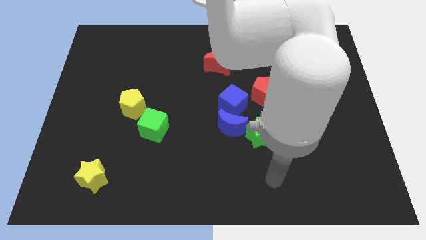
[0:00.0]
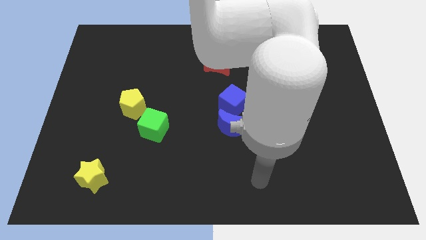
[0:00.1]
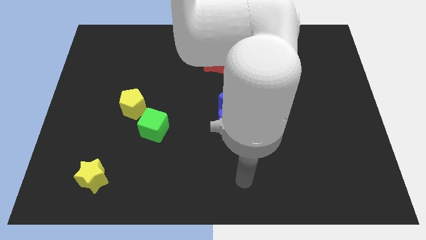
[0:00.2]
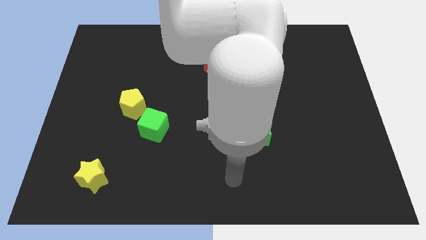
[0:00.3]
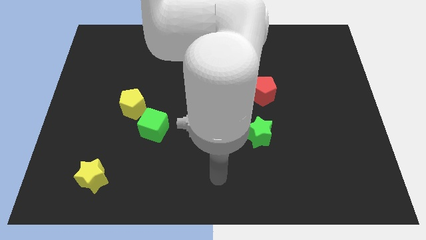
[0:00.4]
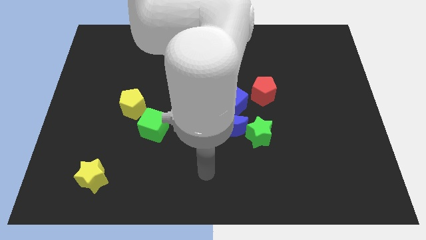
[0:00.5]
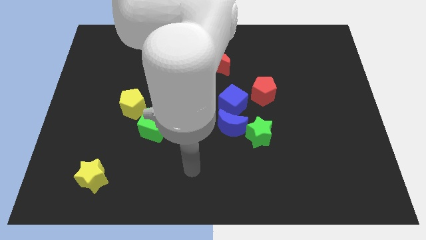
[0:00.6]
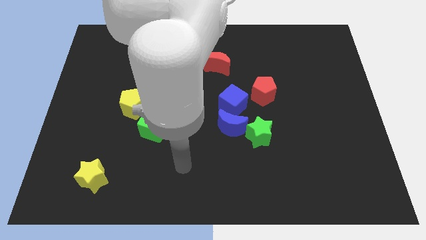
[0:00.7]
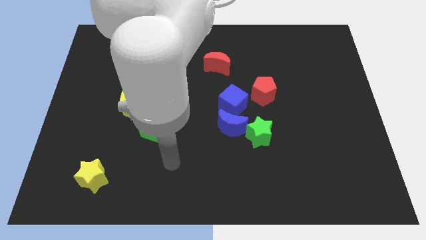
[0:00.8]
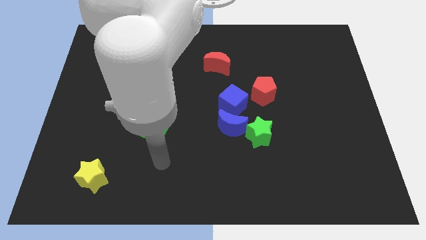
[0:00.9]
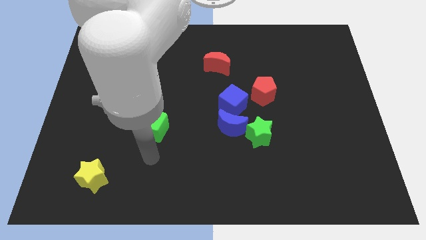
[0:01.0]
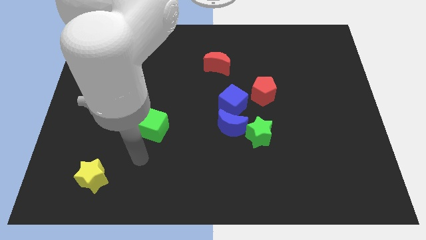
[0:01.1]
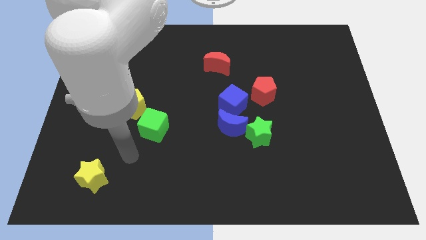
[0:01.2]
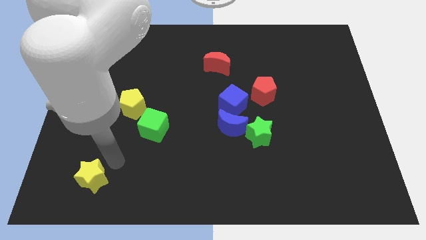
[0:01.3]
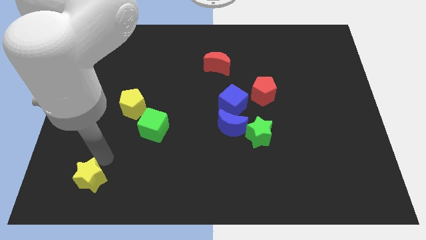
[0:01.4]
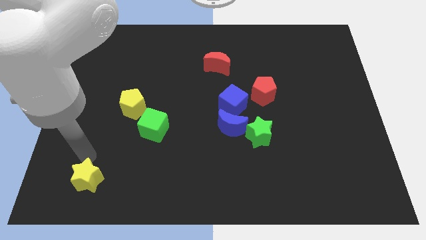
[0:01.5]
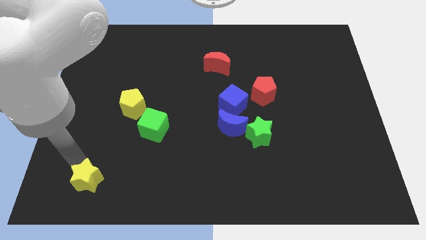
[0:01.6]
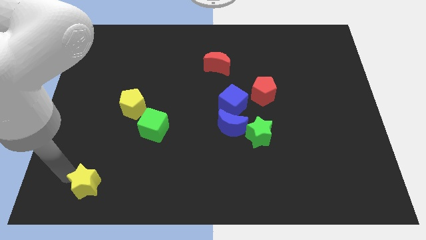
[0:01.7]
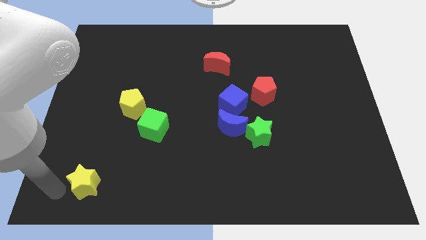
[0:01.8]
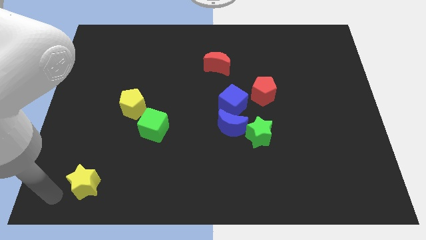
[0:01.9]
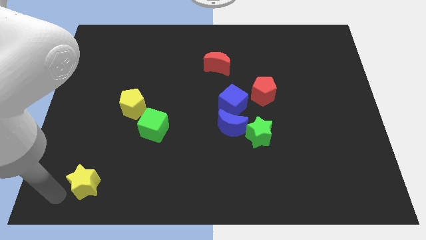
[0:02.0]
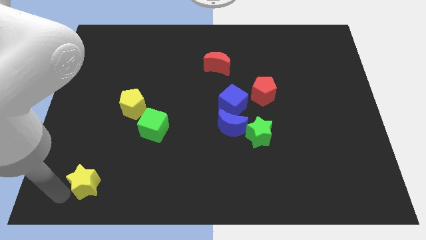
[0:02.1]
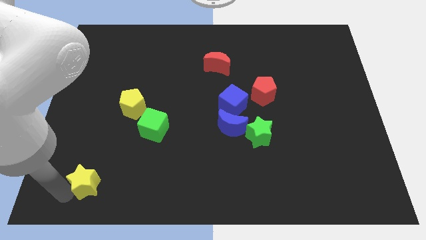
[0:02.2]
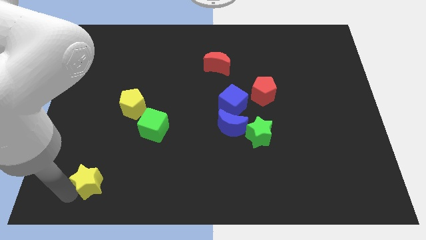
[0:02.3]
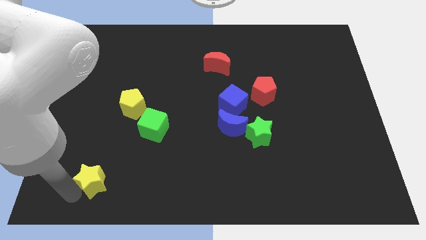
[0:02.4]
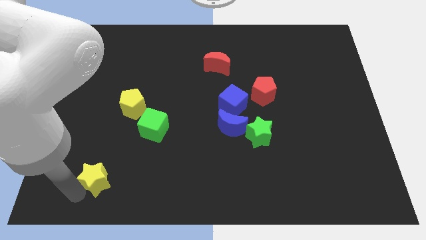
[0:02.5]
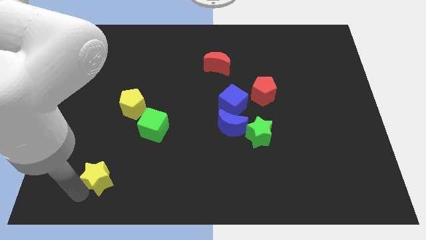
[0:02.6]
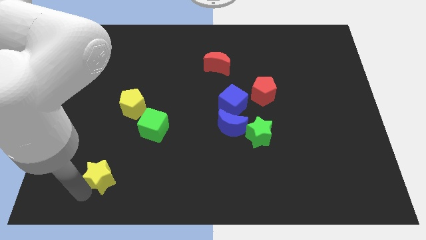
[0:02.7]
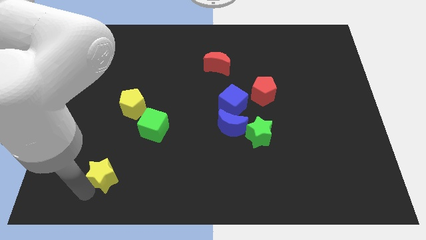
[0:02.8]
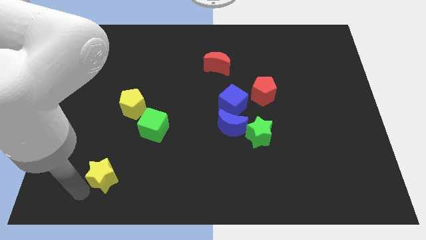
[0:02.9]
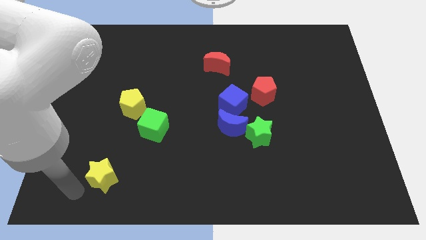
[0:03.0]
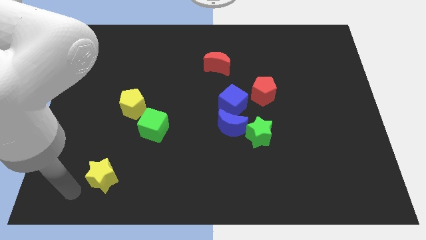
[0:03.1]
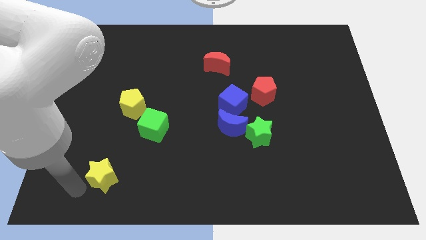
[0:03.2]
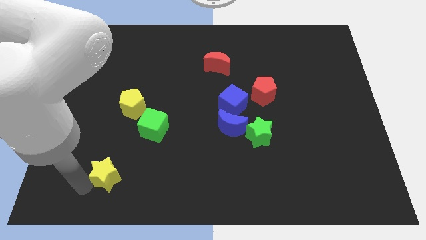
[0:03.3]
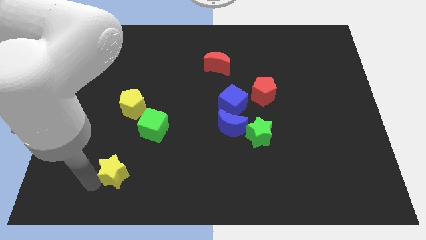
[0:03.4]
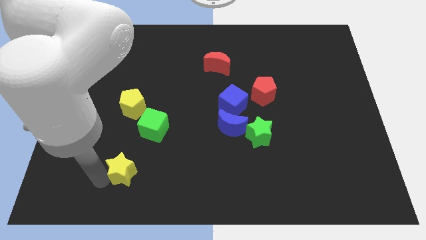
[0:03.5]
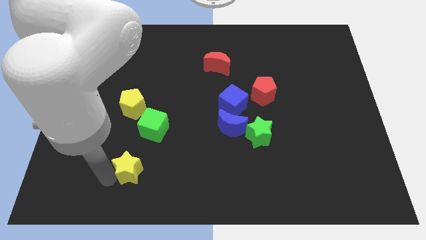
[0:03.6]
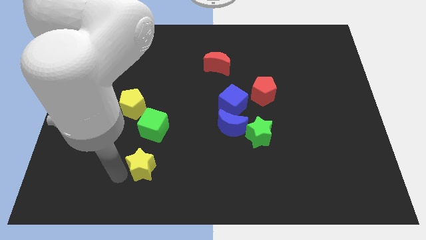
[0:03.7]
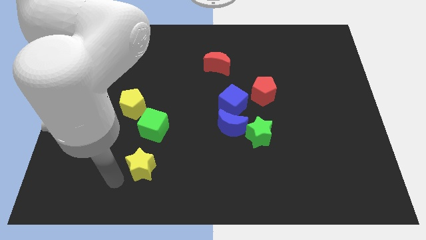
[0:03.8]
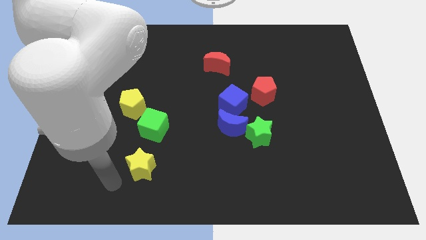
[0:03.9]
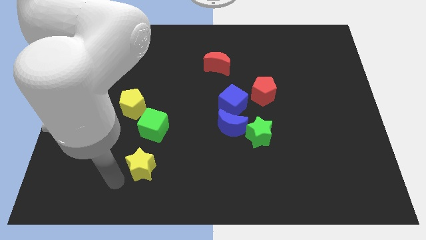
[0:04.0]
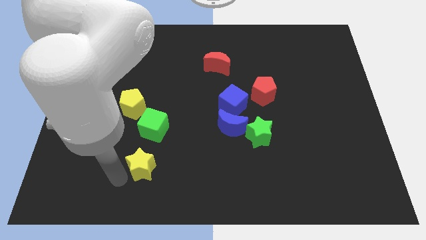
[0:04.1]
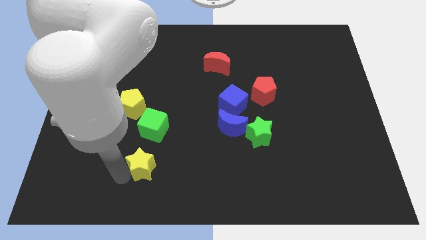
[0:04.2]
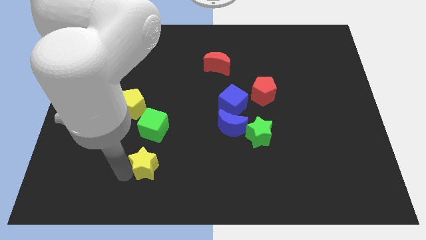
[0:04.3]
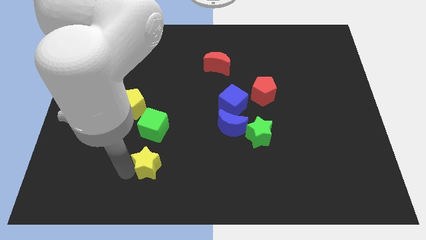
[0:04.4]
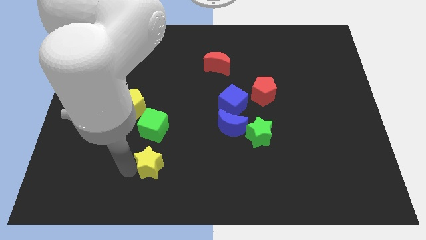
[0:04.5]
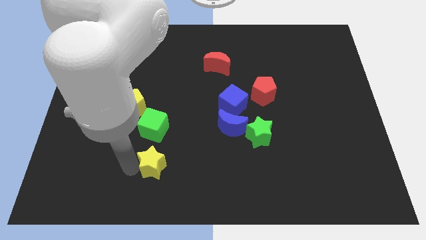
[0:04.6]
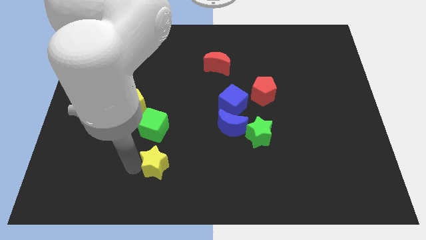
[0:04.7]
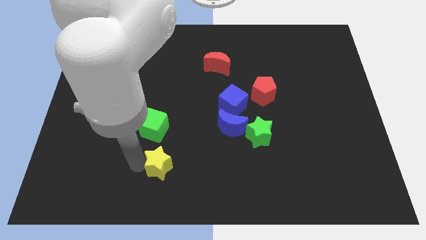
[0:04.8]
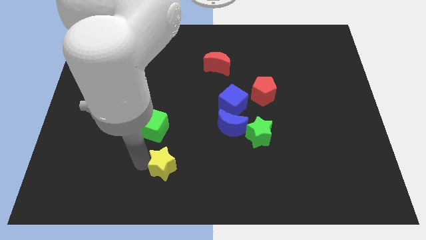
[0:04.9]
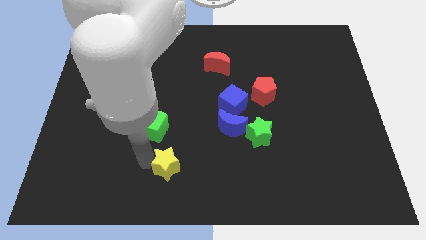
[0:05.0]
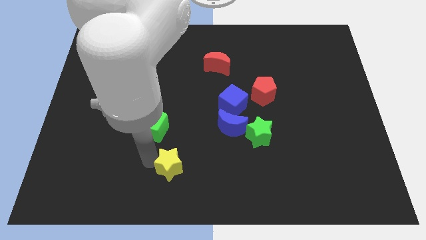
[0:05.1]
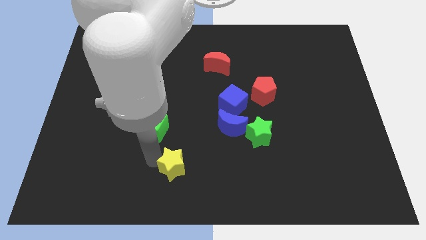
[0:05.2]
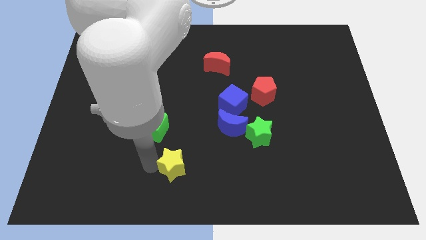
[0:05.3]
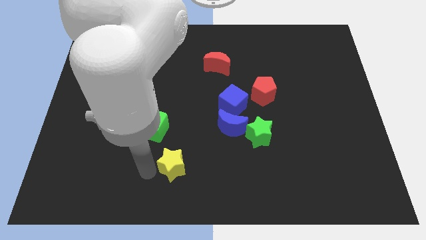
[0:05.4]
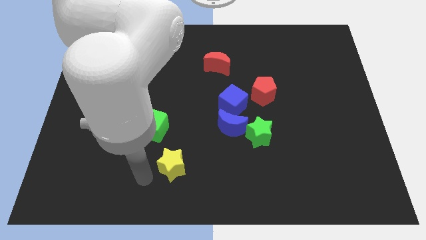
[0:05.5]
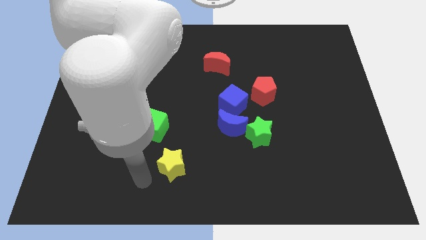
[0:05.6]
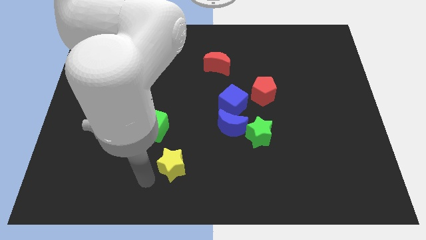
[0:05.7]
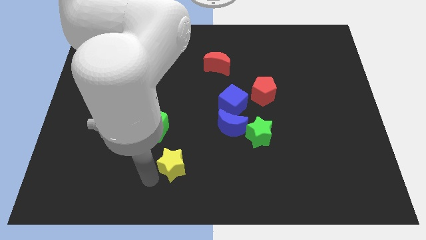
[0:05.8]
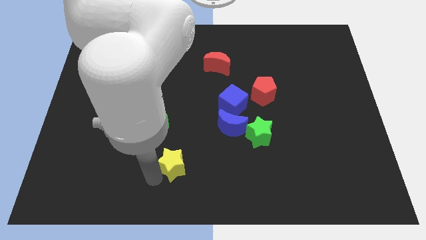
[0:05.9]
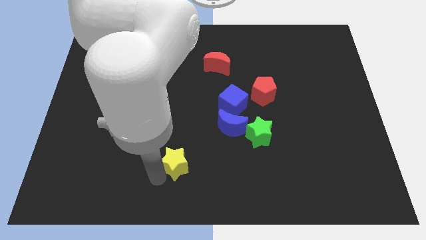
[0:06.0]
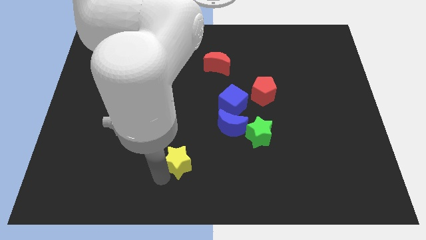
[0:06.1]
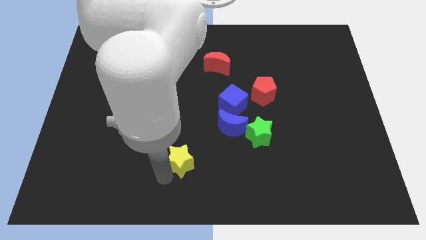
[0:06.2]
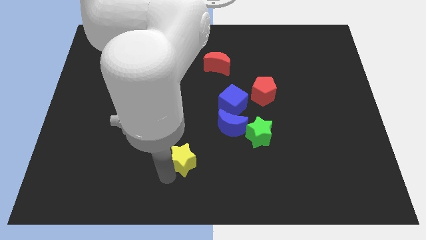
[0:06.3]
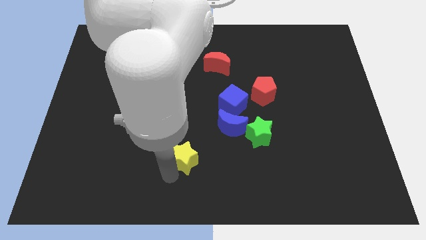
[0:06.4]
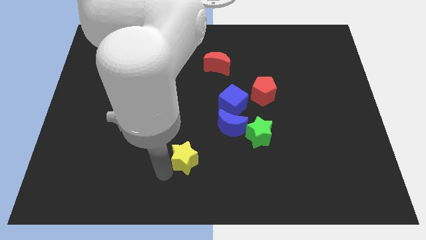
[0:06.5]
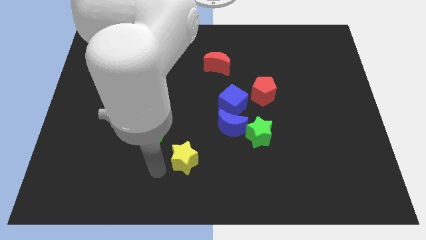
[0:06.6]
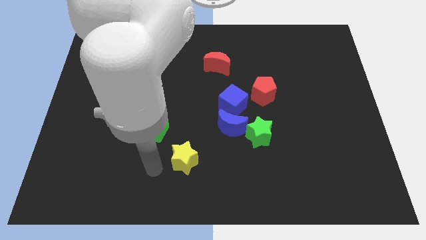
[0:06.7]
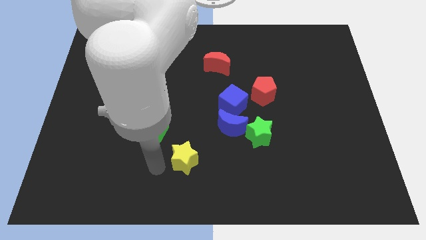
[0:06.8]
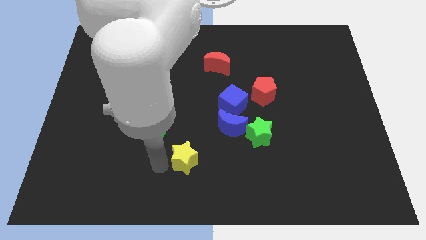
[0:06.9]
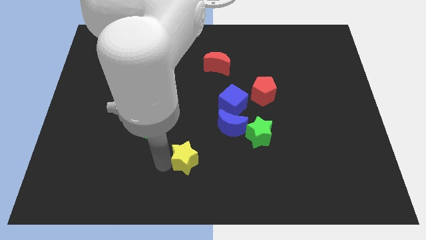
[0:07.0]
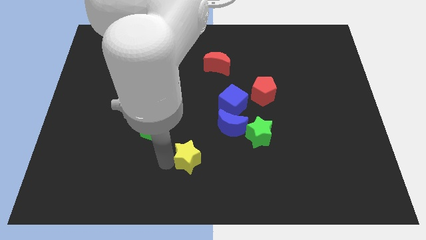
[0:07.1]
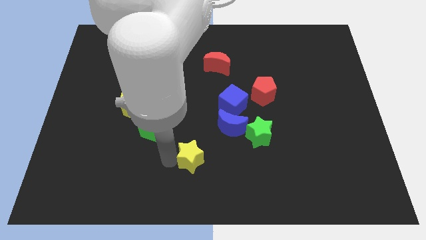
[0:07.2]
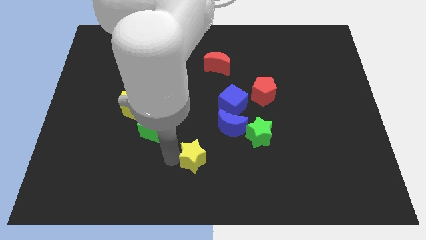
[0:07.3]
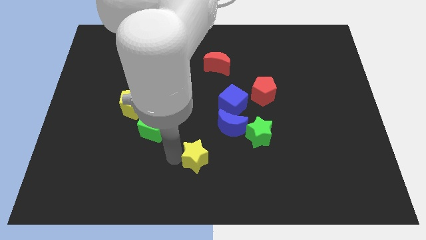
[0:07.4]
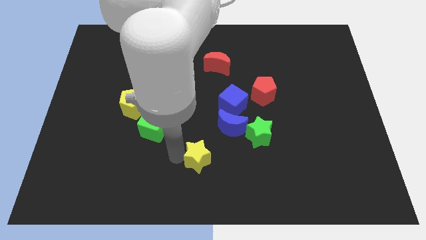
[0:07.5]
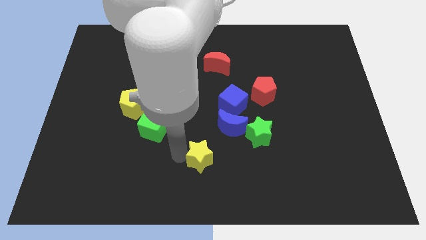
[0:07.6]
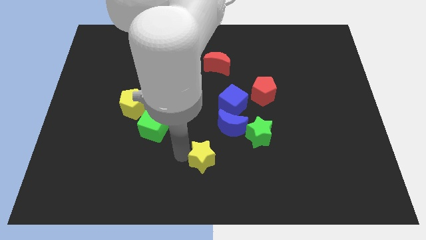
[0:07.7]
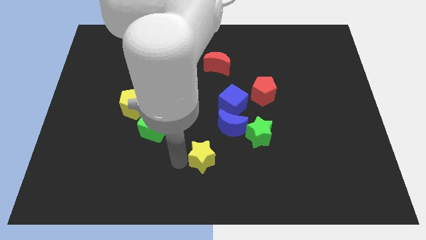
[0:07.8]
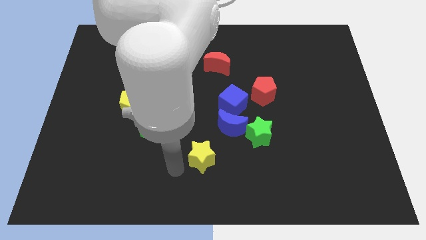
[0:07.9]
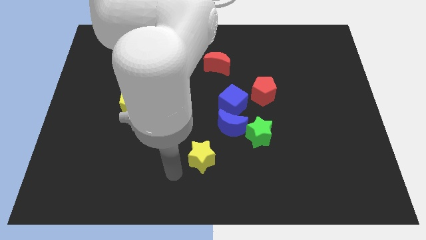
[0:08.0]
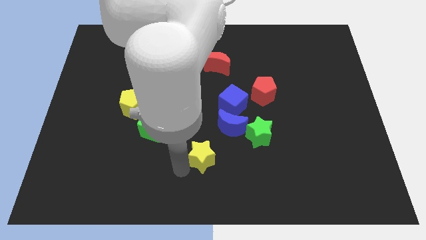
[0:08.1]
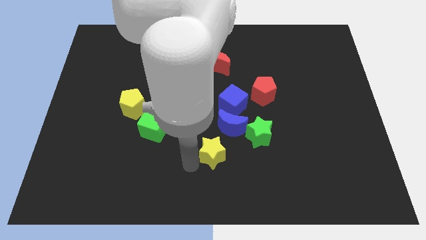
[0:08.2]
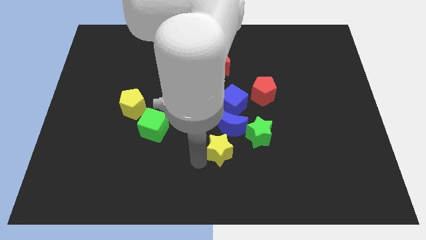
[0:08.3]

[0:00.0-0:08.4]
move the yellow star to the bottom of the blue cube
